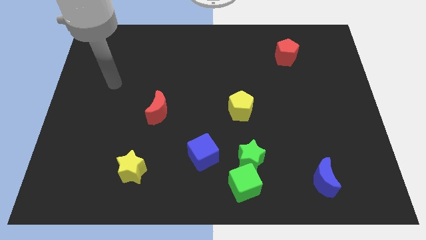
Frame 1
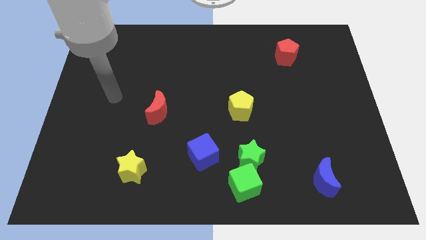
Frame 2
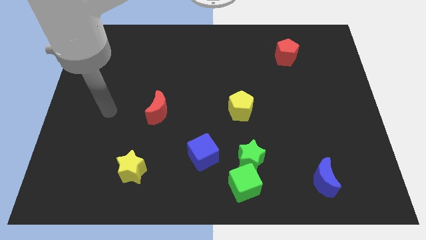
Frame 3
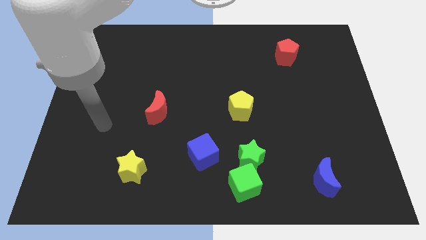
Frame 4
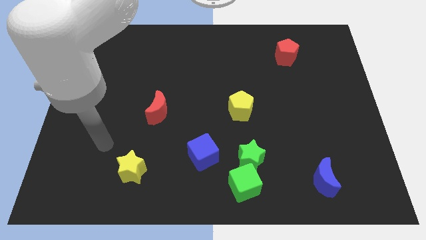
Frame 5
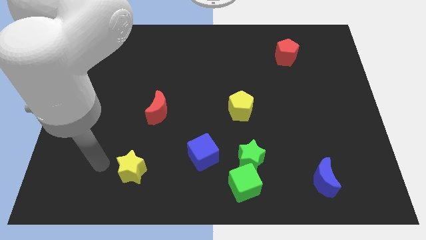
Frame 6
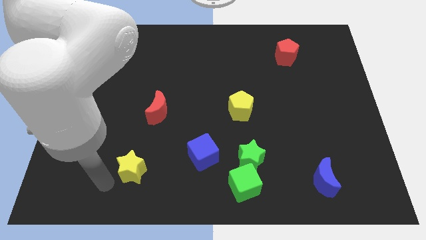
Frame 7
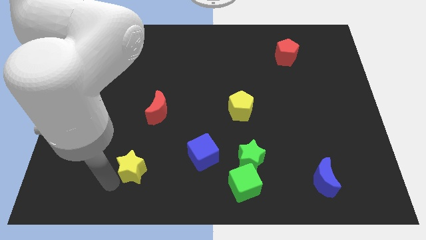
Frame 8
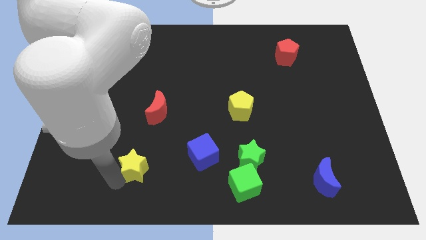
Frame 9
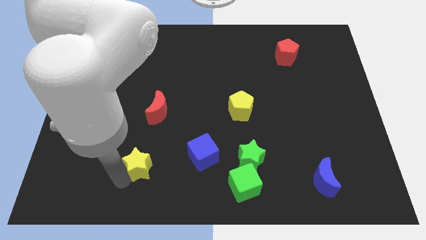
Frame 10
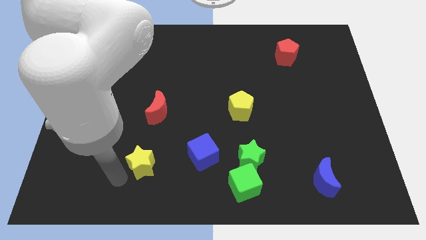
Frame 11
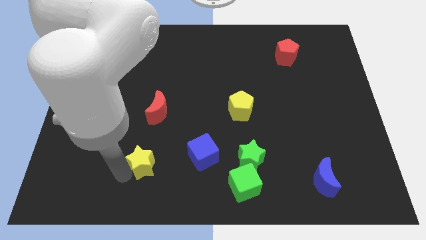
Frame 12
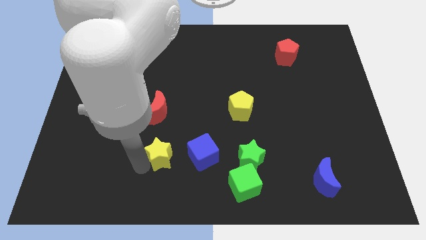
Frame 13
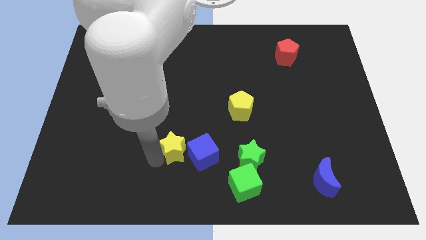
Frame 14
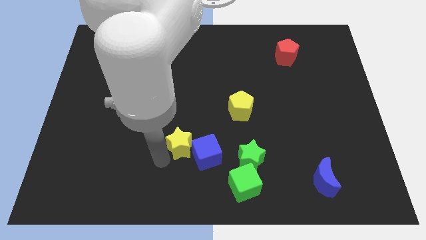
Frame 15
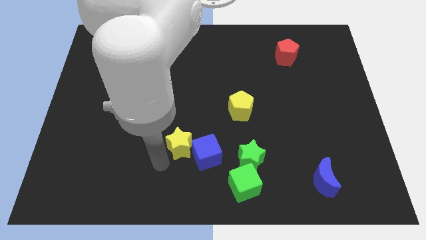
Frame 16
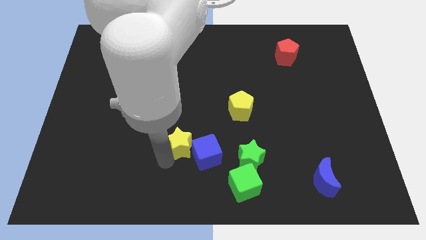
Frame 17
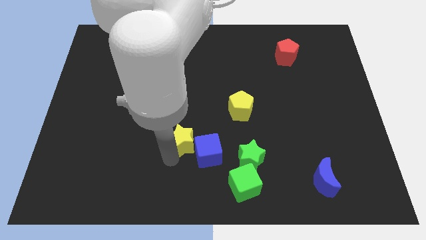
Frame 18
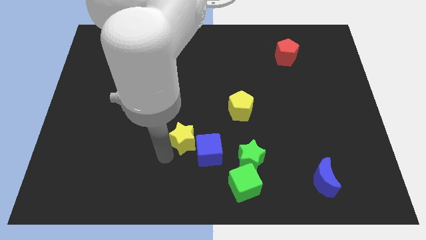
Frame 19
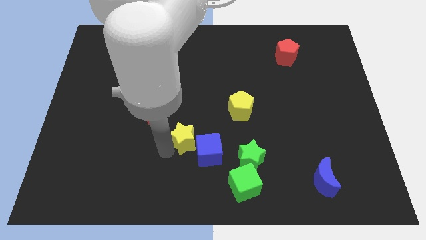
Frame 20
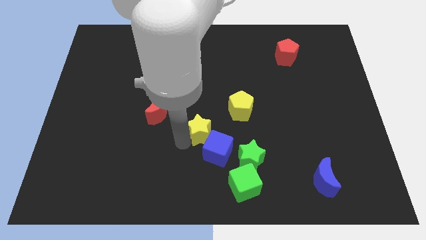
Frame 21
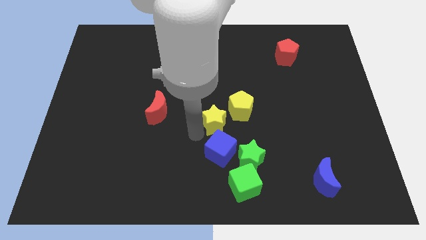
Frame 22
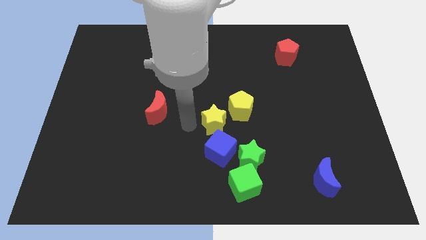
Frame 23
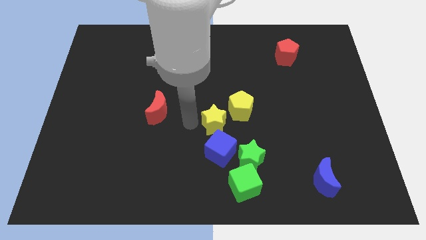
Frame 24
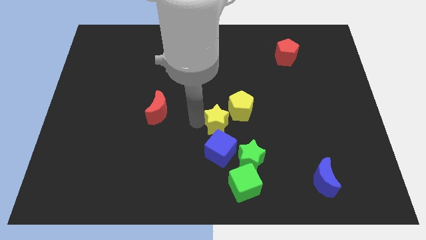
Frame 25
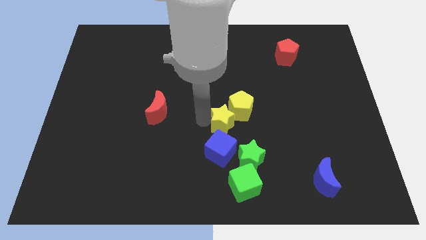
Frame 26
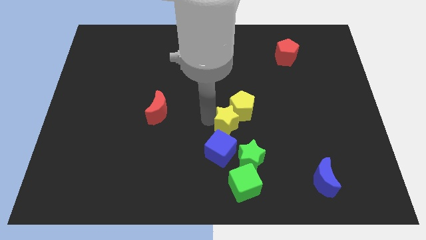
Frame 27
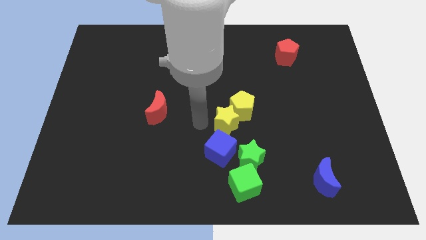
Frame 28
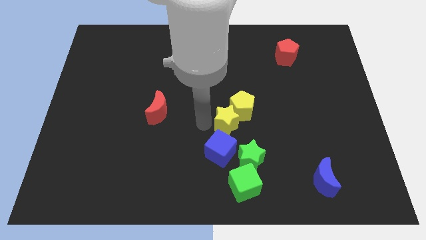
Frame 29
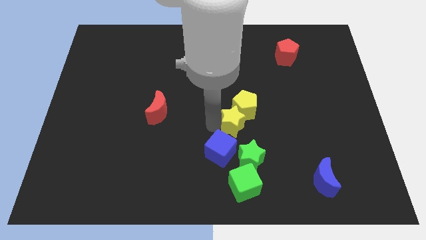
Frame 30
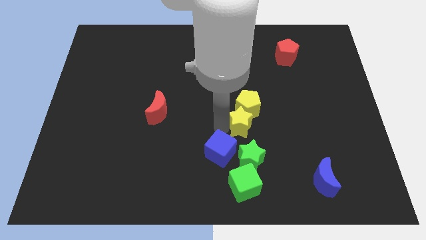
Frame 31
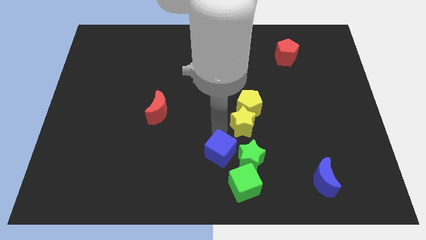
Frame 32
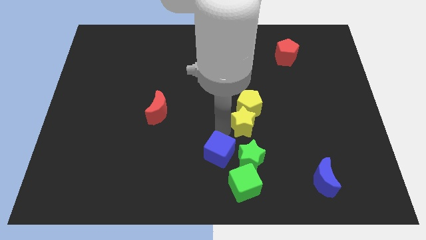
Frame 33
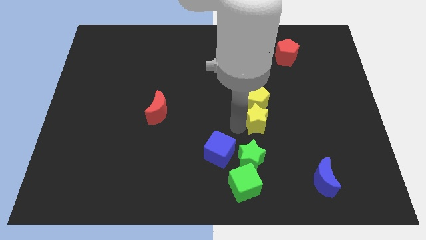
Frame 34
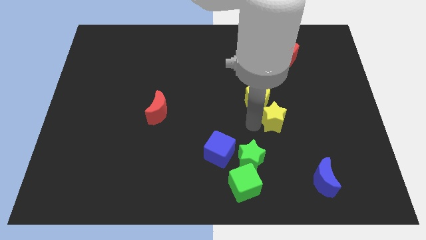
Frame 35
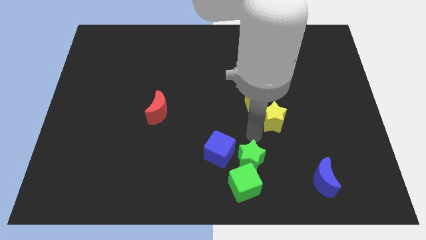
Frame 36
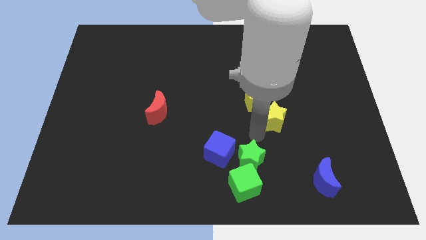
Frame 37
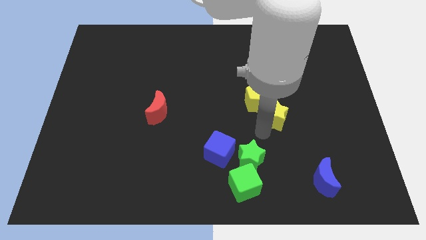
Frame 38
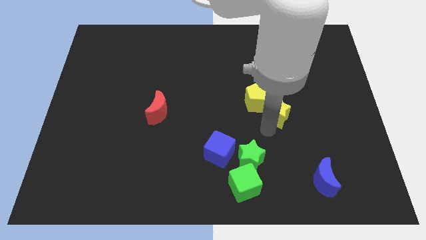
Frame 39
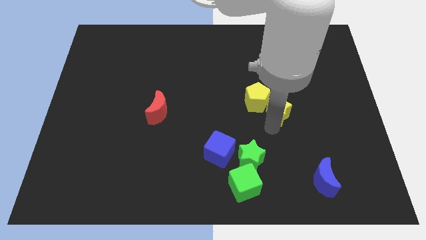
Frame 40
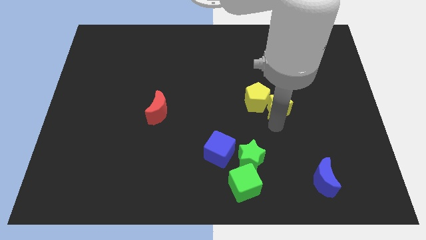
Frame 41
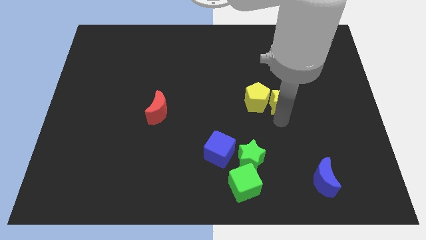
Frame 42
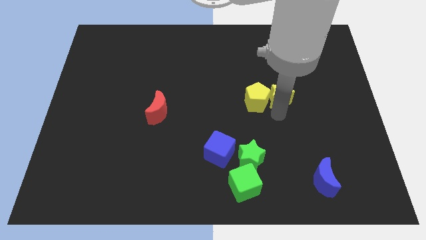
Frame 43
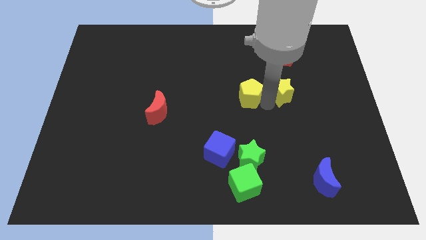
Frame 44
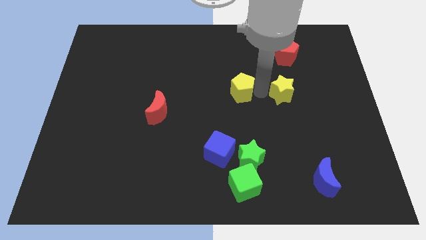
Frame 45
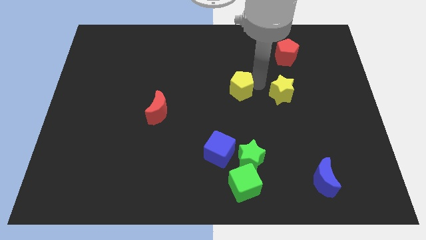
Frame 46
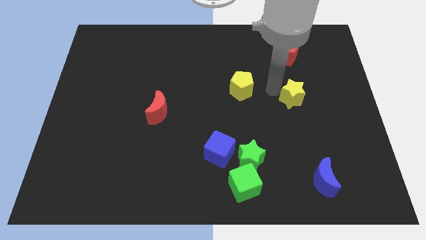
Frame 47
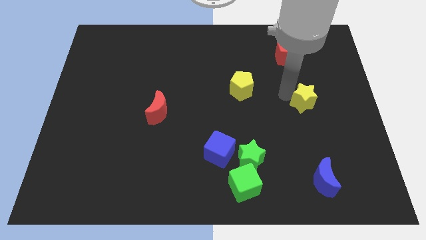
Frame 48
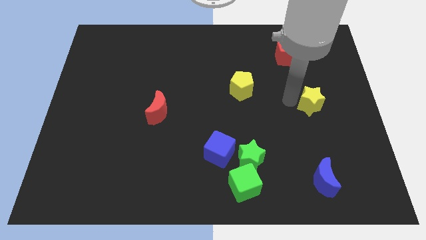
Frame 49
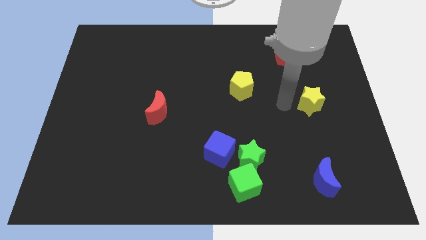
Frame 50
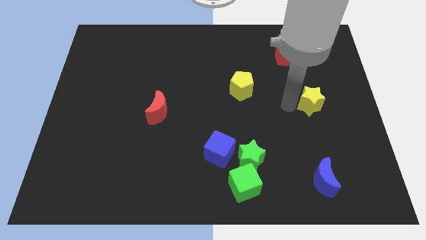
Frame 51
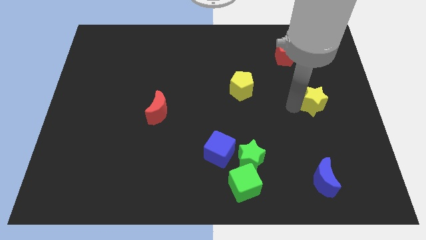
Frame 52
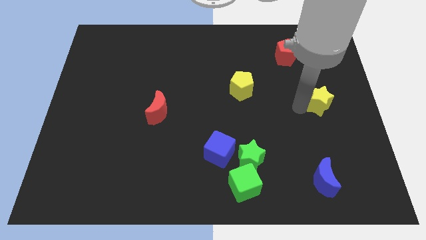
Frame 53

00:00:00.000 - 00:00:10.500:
put the yellow star to the right side of the board

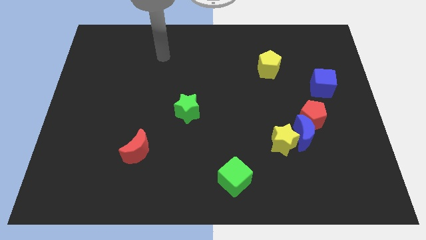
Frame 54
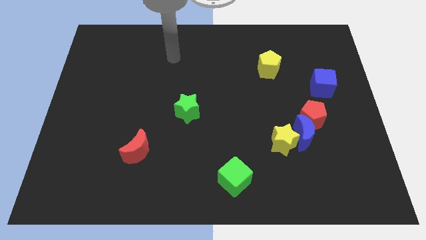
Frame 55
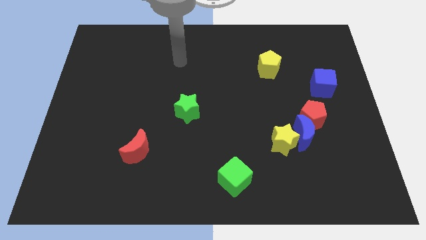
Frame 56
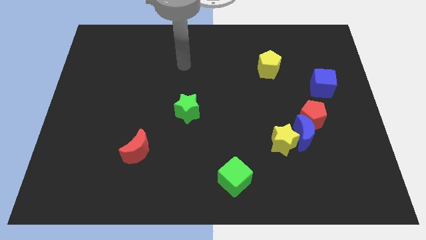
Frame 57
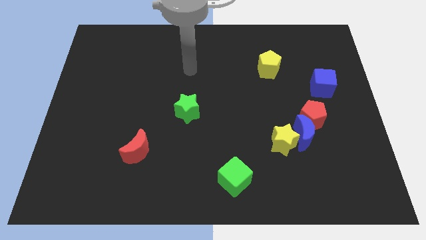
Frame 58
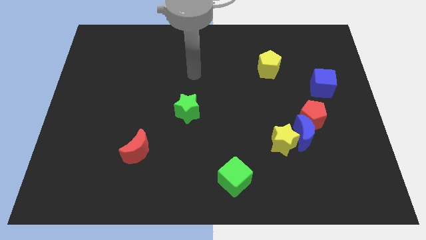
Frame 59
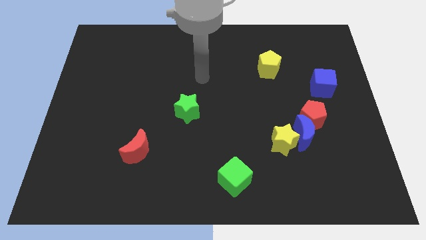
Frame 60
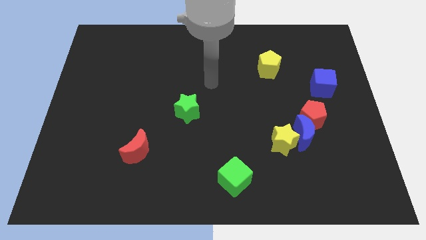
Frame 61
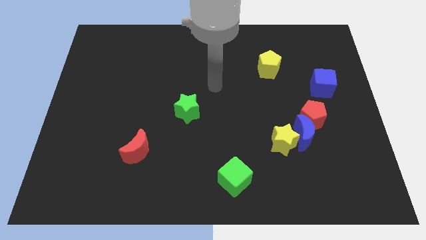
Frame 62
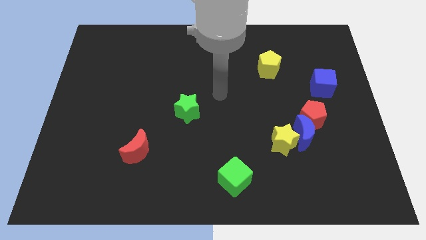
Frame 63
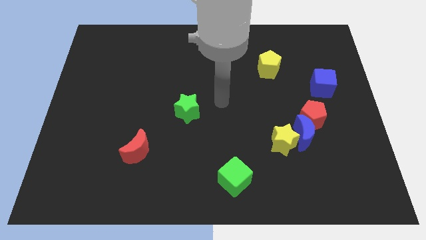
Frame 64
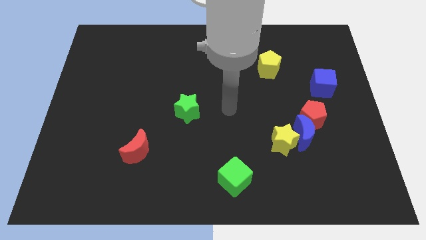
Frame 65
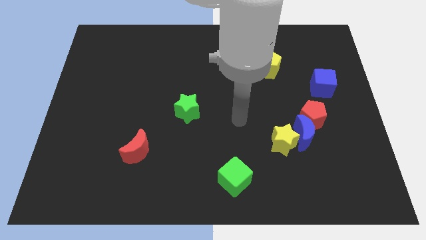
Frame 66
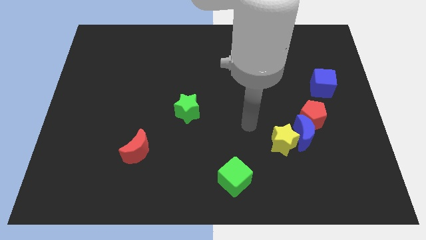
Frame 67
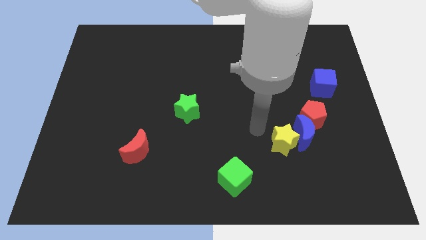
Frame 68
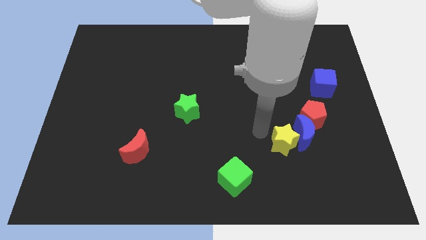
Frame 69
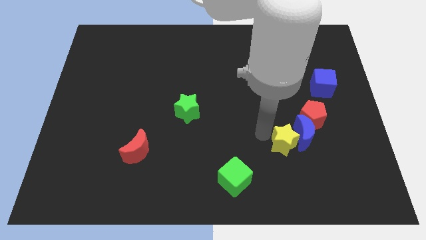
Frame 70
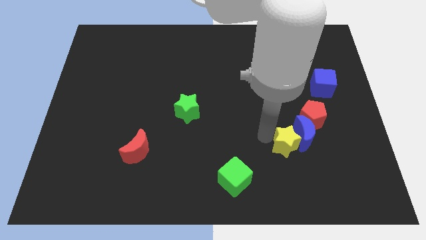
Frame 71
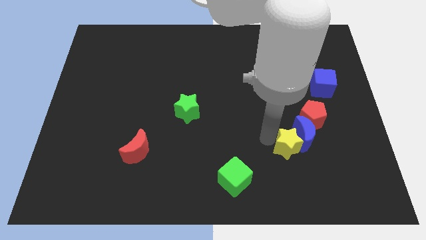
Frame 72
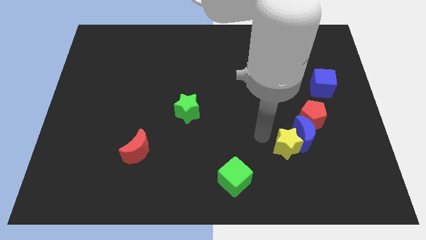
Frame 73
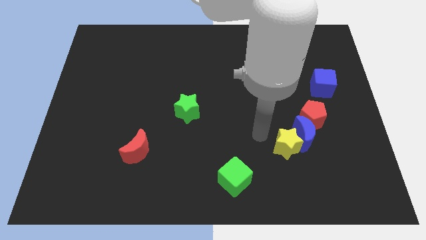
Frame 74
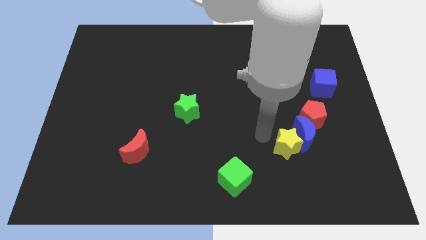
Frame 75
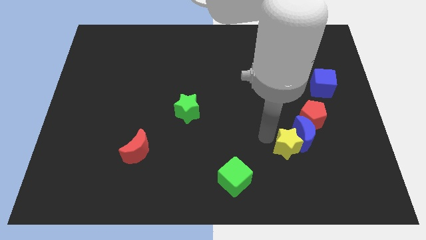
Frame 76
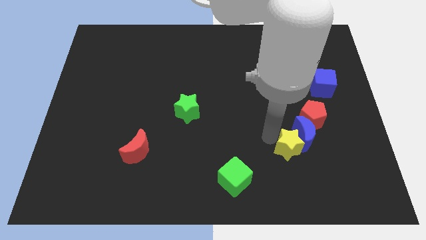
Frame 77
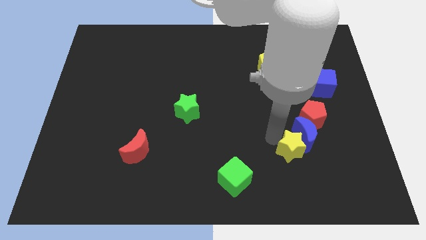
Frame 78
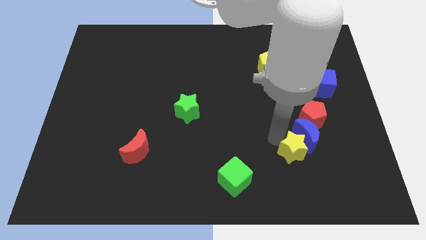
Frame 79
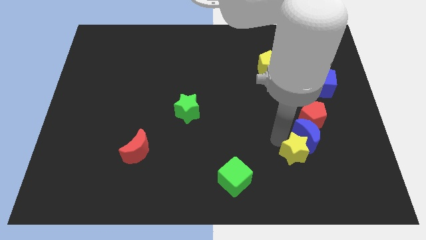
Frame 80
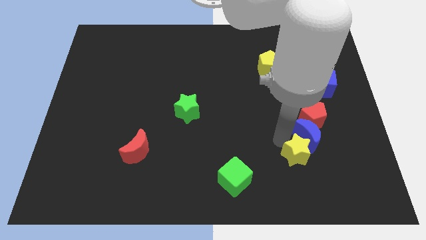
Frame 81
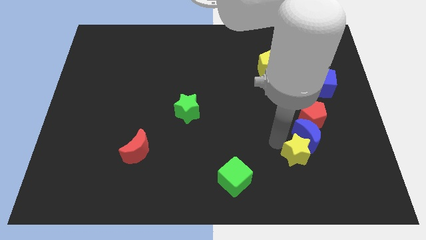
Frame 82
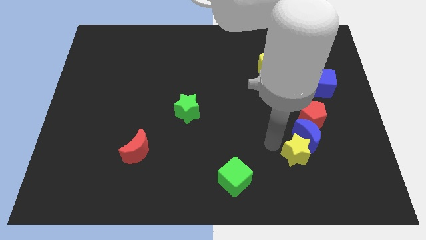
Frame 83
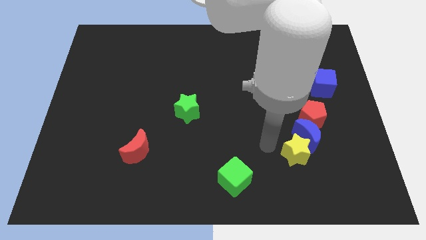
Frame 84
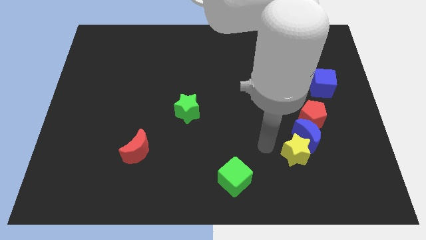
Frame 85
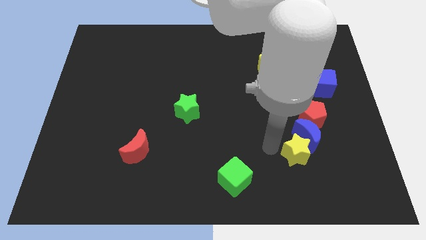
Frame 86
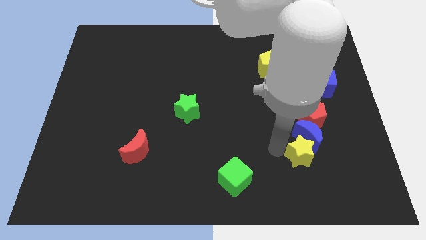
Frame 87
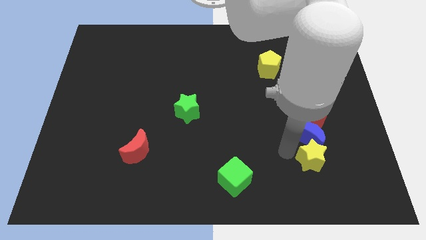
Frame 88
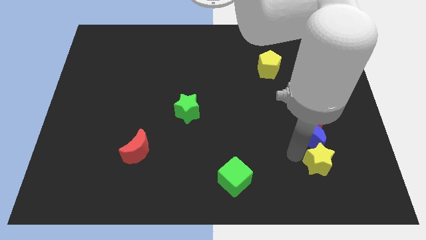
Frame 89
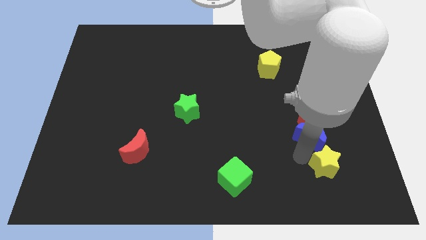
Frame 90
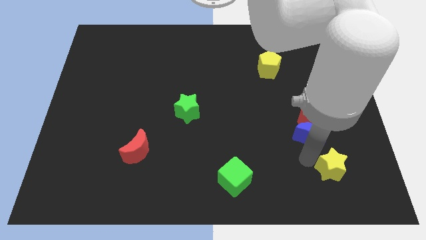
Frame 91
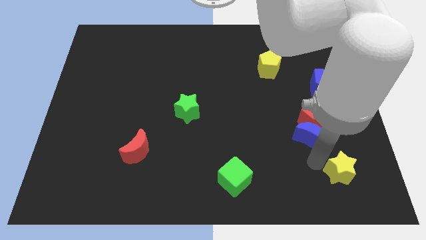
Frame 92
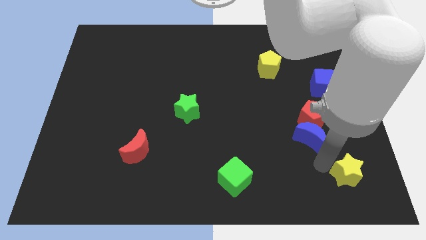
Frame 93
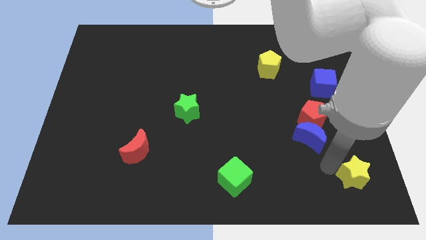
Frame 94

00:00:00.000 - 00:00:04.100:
put the yellow star to the bottom right of the board
